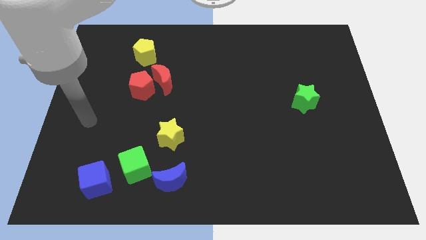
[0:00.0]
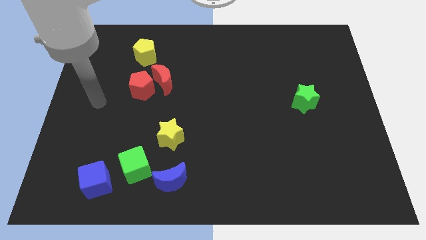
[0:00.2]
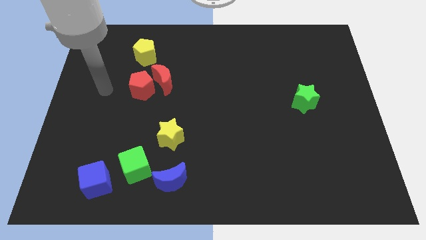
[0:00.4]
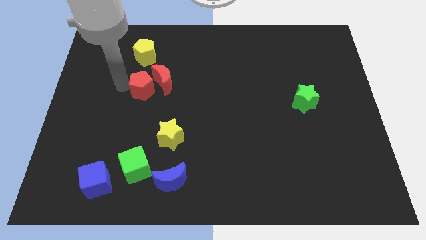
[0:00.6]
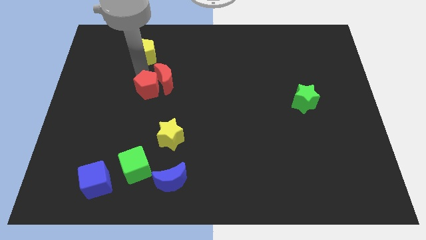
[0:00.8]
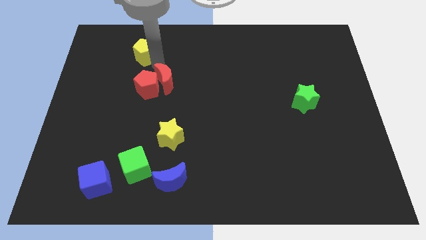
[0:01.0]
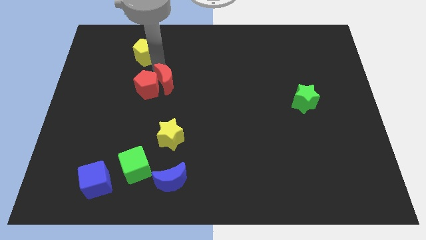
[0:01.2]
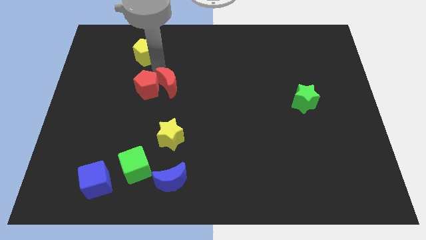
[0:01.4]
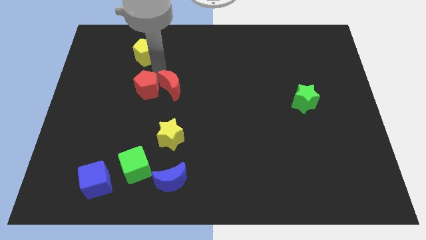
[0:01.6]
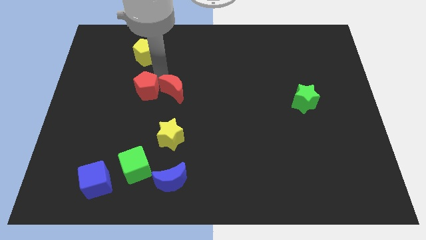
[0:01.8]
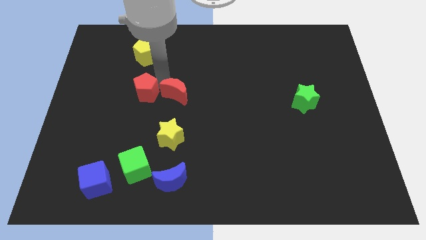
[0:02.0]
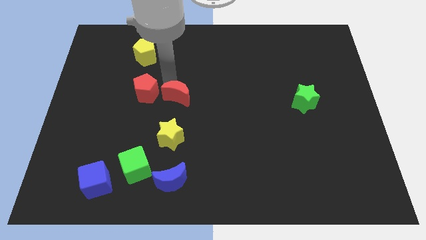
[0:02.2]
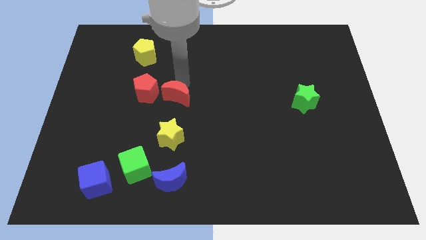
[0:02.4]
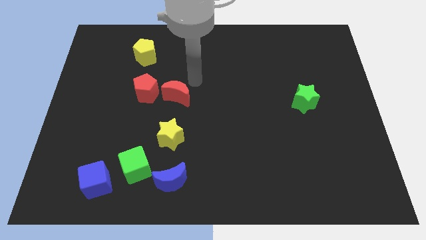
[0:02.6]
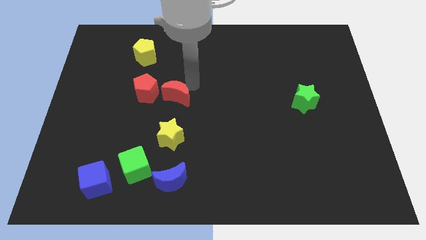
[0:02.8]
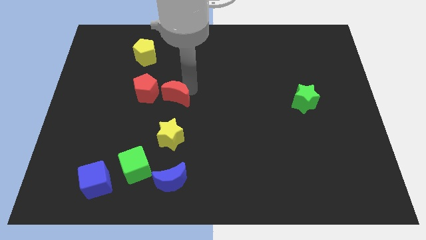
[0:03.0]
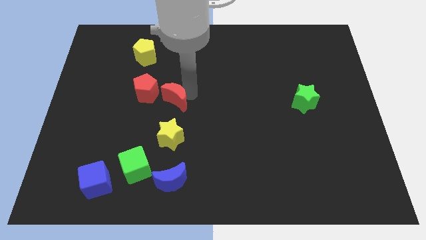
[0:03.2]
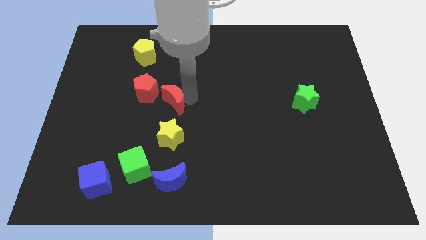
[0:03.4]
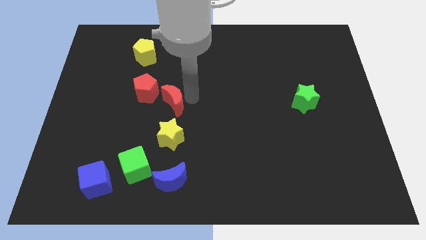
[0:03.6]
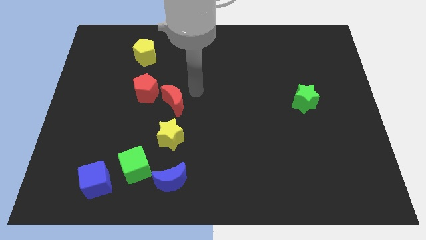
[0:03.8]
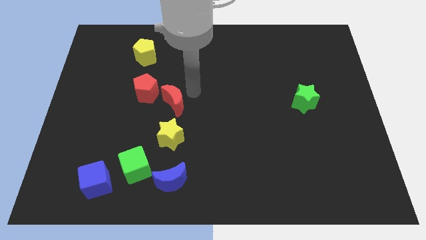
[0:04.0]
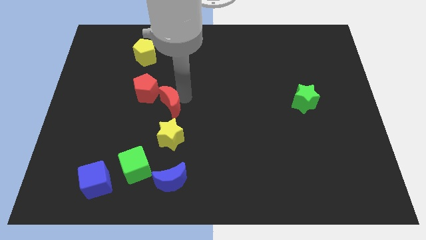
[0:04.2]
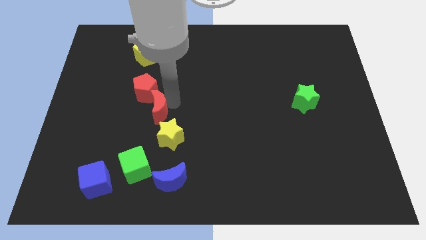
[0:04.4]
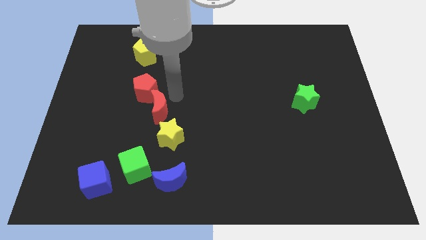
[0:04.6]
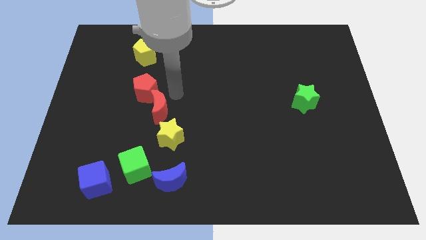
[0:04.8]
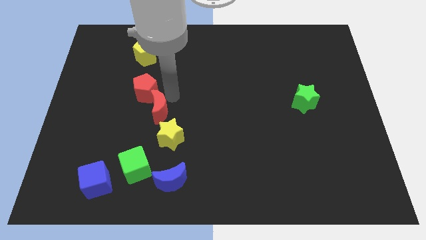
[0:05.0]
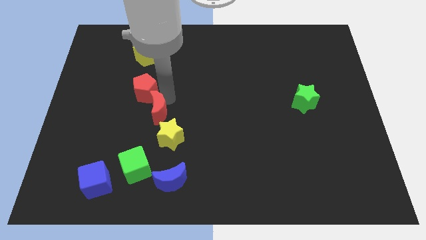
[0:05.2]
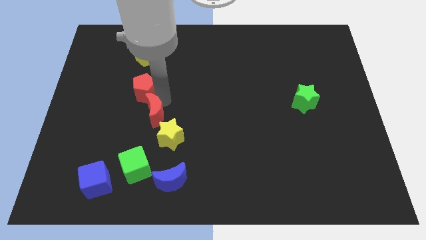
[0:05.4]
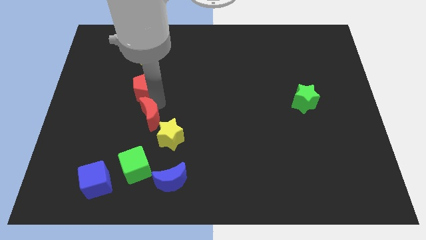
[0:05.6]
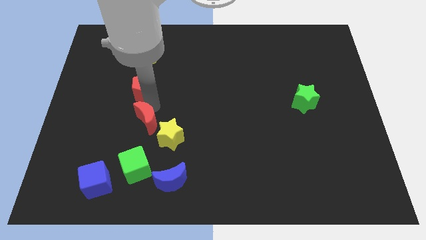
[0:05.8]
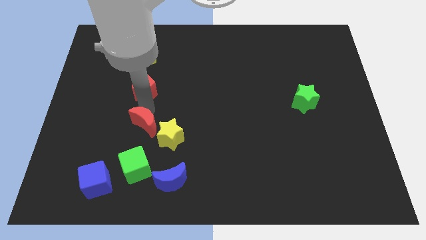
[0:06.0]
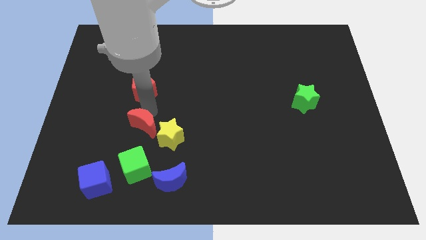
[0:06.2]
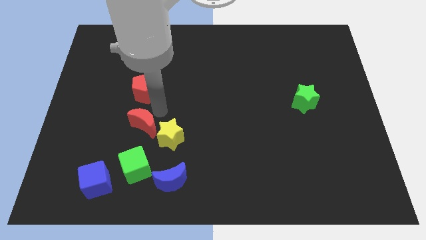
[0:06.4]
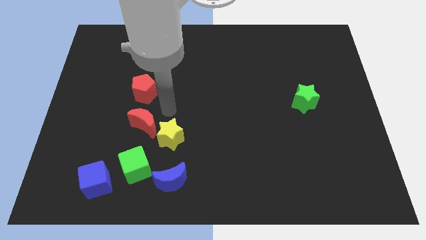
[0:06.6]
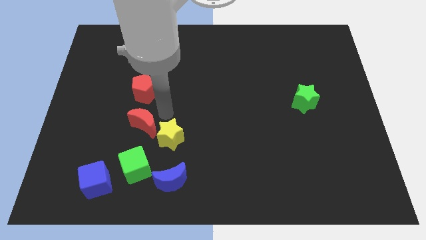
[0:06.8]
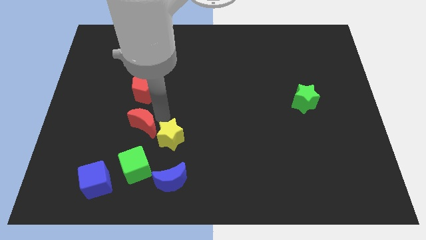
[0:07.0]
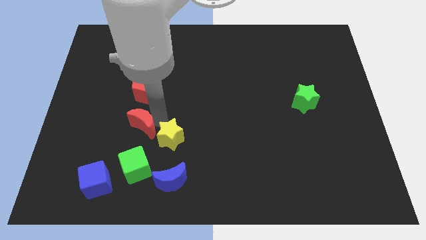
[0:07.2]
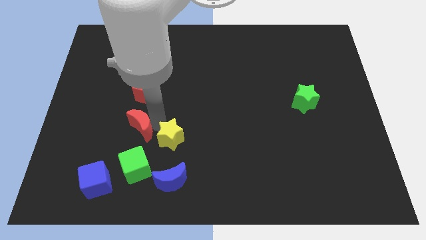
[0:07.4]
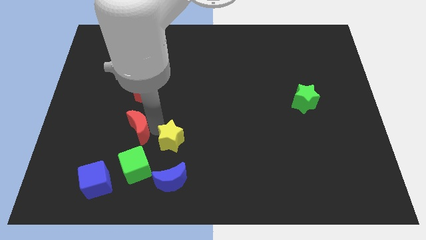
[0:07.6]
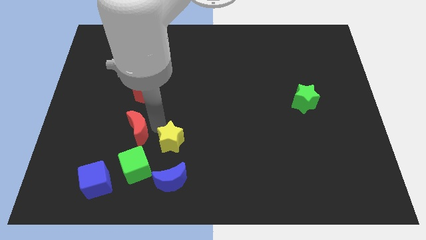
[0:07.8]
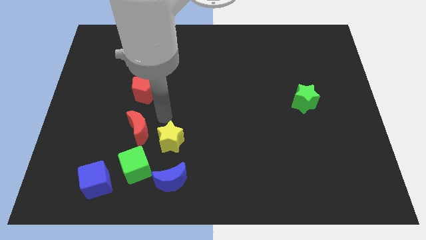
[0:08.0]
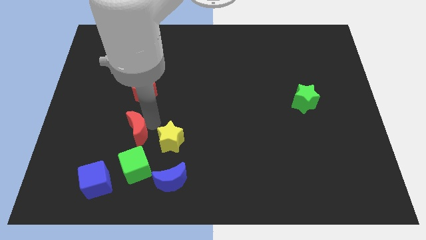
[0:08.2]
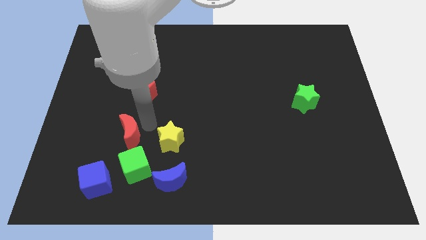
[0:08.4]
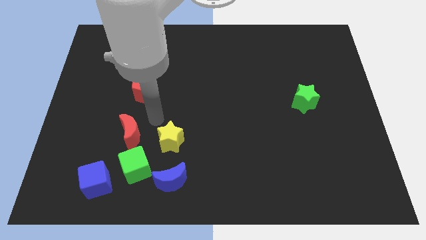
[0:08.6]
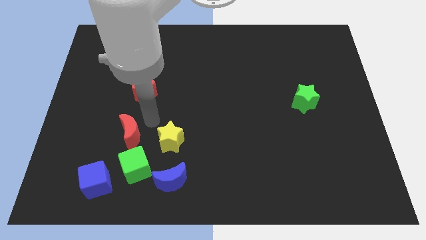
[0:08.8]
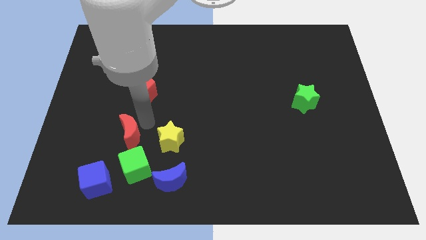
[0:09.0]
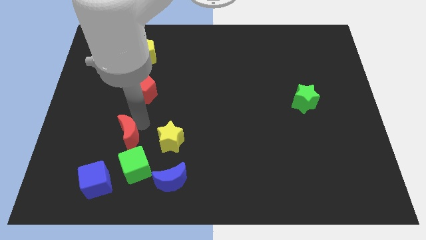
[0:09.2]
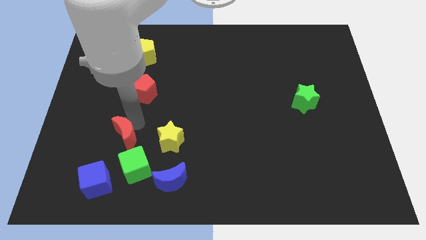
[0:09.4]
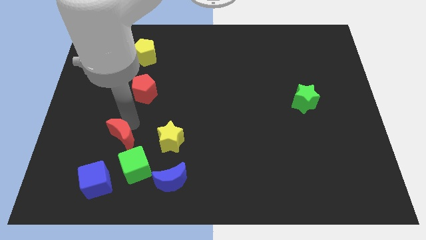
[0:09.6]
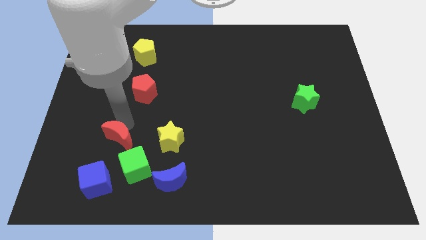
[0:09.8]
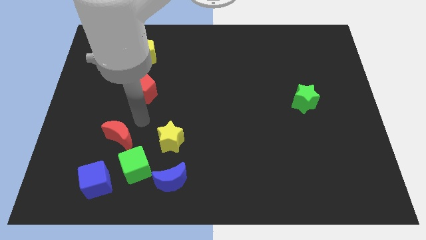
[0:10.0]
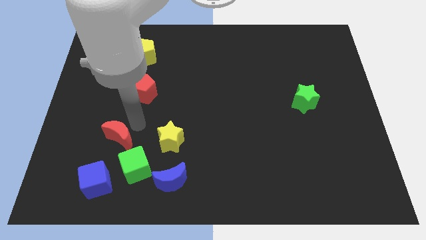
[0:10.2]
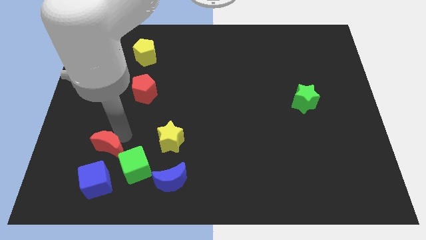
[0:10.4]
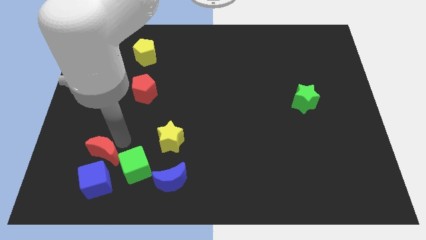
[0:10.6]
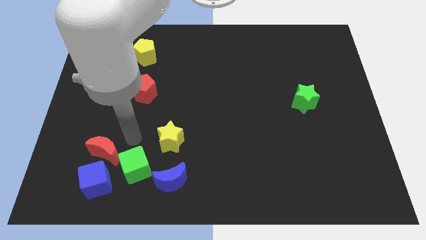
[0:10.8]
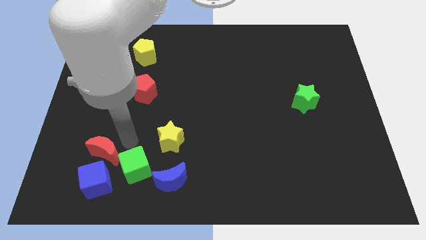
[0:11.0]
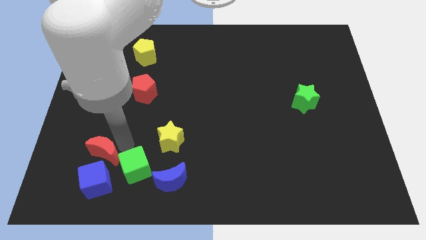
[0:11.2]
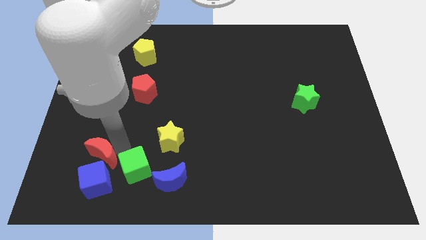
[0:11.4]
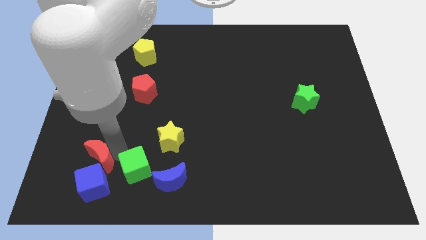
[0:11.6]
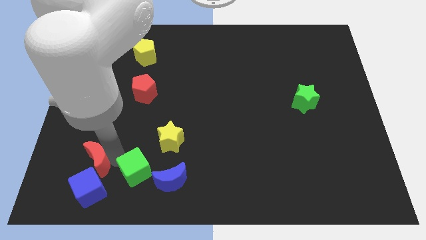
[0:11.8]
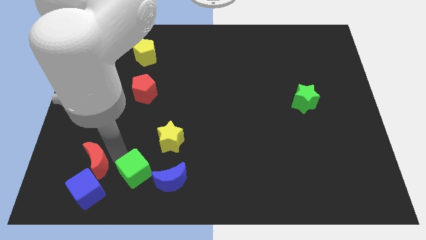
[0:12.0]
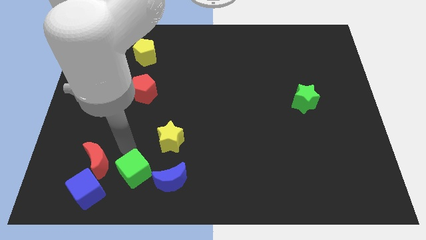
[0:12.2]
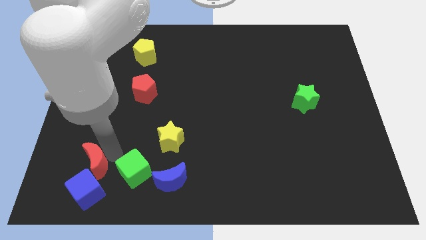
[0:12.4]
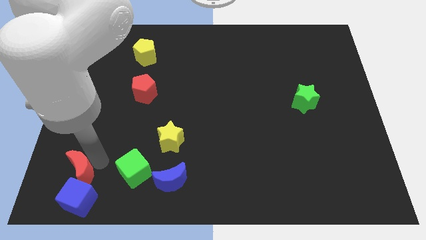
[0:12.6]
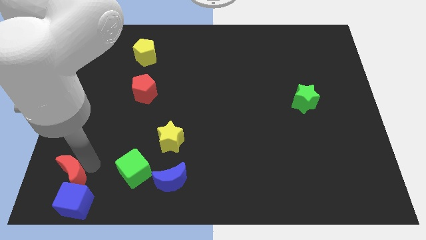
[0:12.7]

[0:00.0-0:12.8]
move the red moon to the bottom left corner

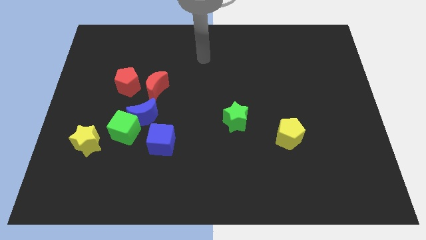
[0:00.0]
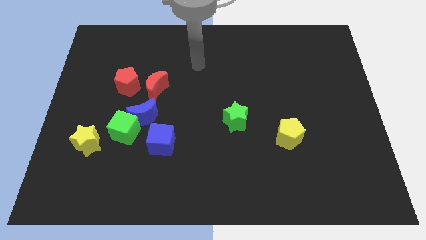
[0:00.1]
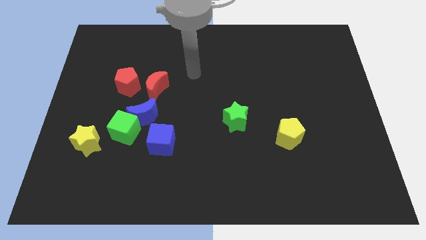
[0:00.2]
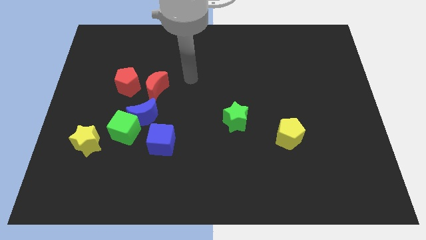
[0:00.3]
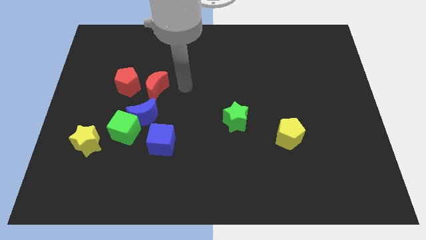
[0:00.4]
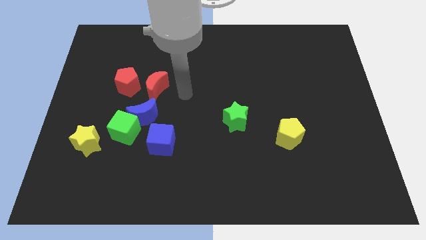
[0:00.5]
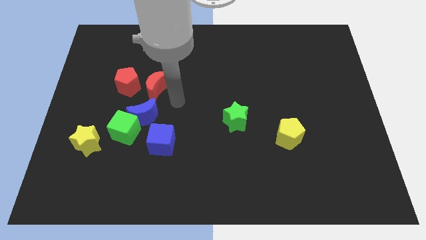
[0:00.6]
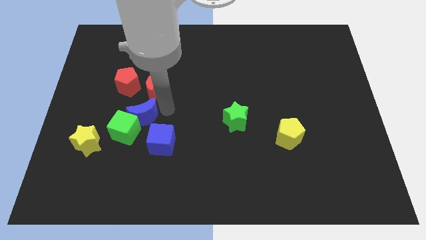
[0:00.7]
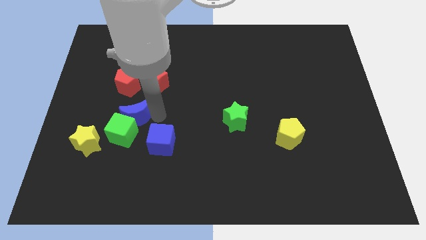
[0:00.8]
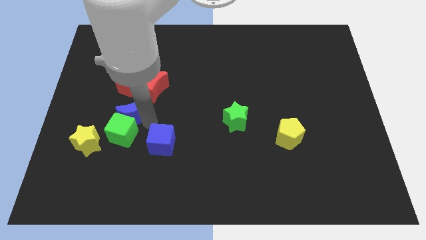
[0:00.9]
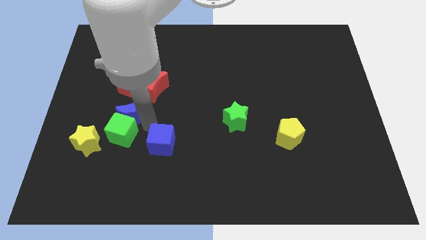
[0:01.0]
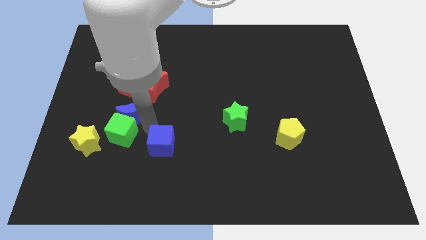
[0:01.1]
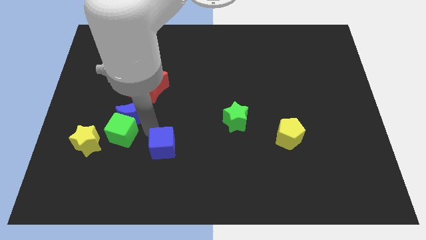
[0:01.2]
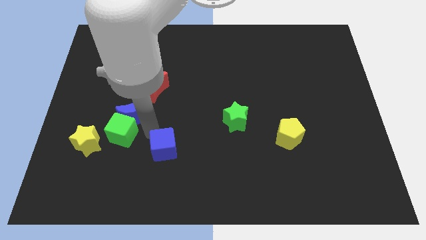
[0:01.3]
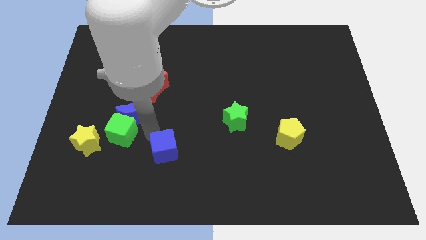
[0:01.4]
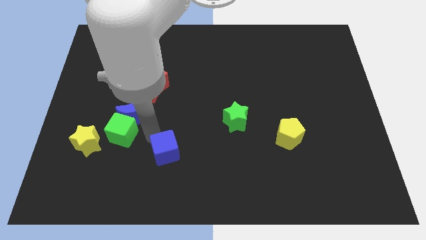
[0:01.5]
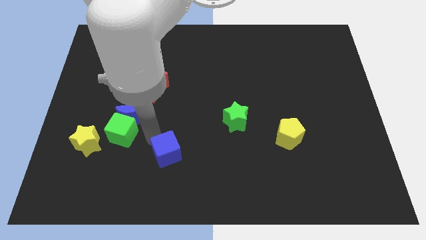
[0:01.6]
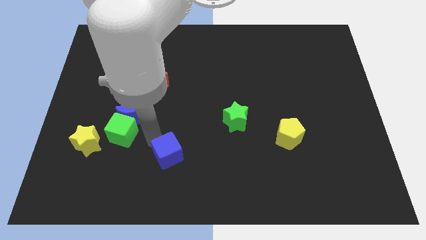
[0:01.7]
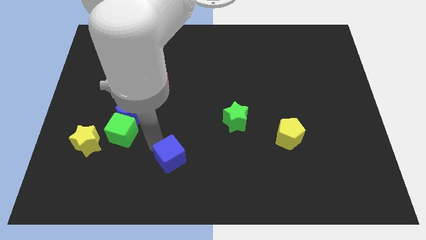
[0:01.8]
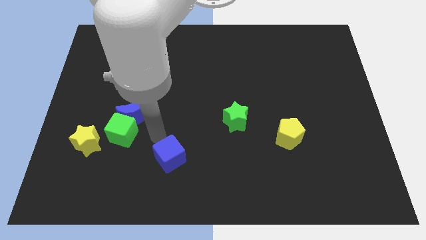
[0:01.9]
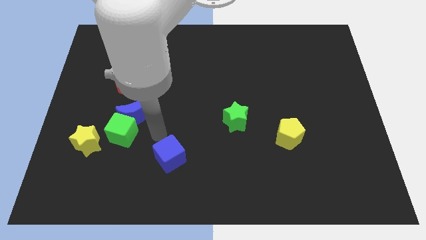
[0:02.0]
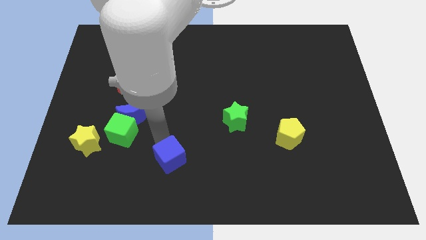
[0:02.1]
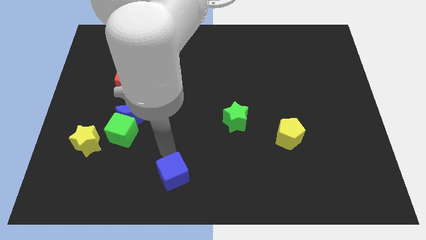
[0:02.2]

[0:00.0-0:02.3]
push the blue cube to the bottom side
